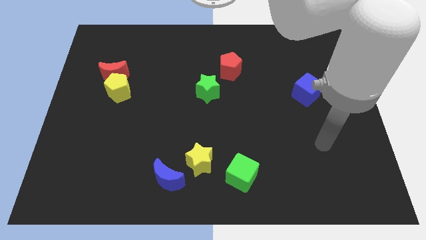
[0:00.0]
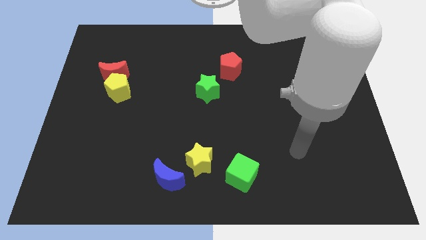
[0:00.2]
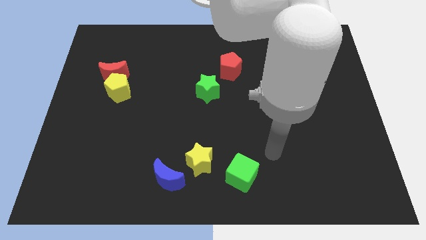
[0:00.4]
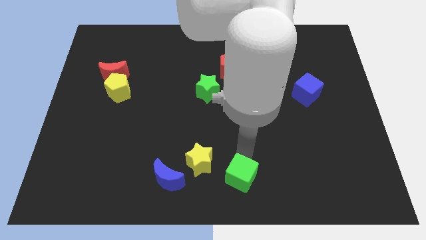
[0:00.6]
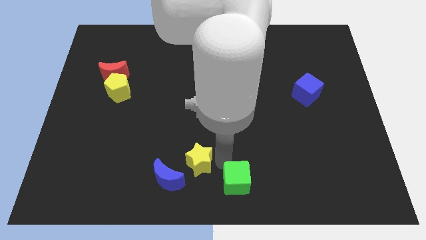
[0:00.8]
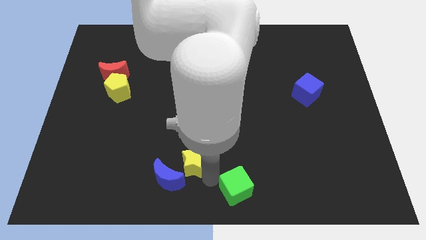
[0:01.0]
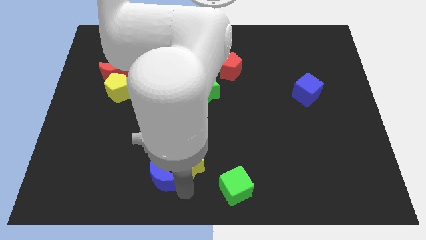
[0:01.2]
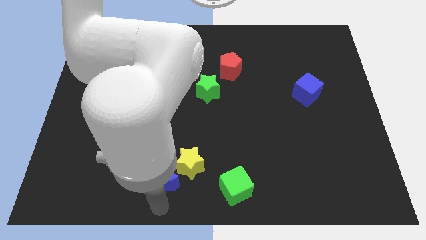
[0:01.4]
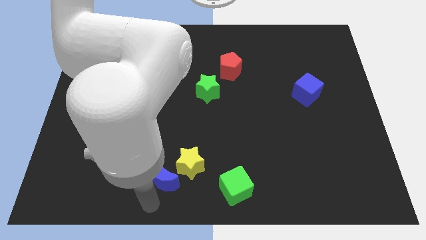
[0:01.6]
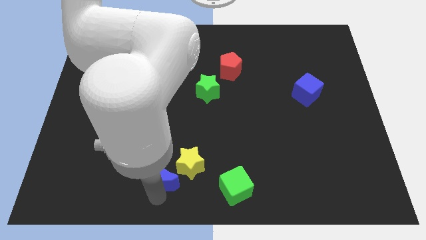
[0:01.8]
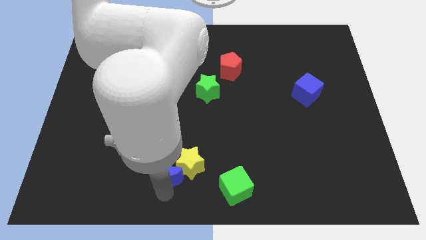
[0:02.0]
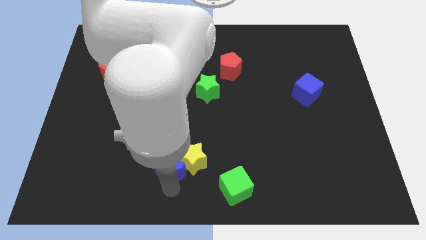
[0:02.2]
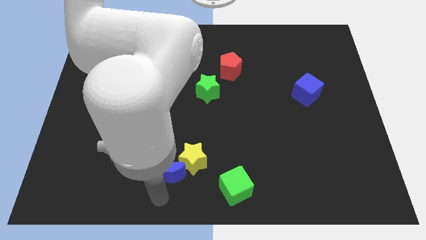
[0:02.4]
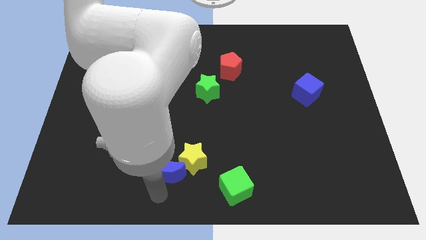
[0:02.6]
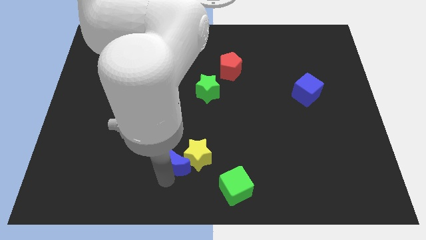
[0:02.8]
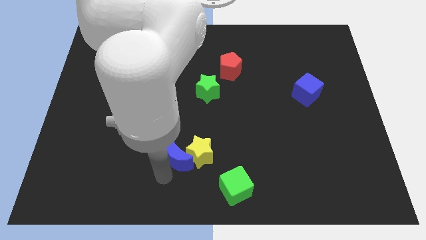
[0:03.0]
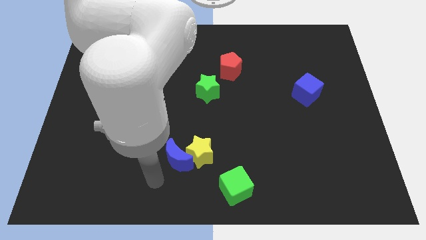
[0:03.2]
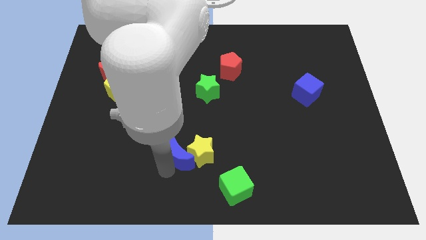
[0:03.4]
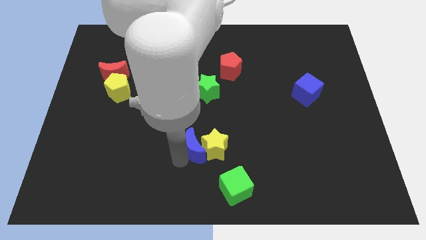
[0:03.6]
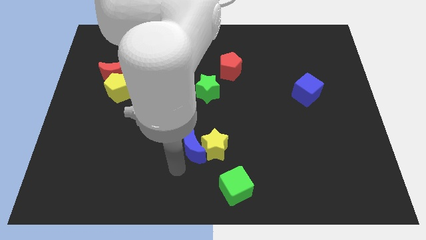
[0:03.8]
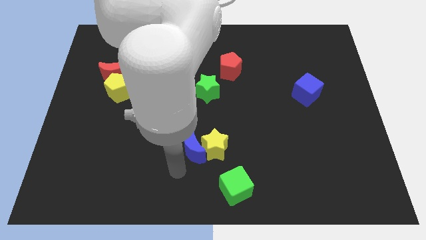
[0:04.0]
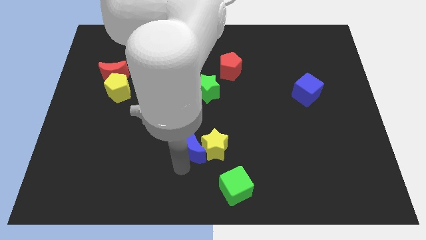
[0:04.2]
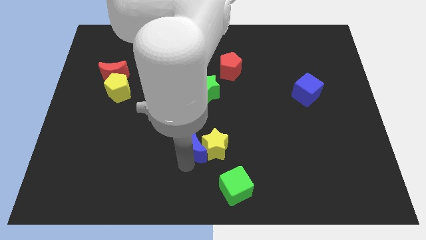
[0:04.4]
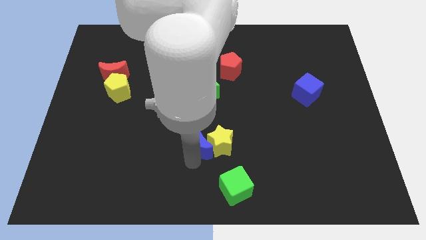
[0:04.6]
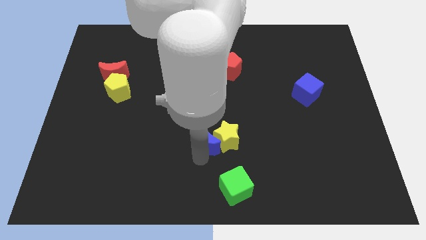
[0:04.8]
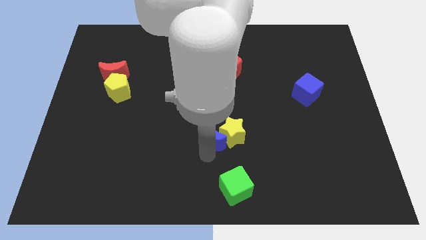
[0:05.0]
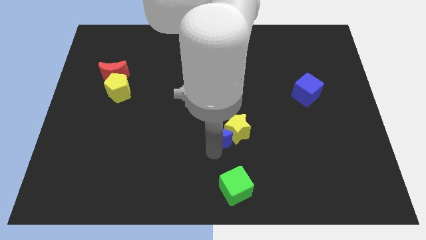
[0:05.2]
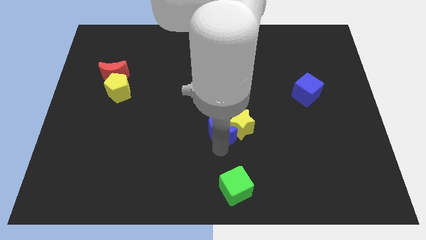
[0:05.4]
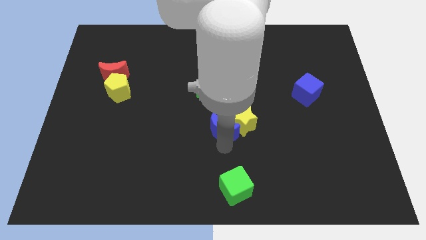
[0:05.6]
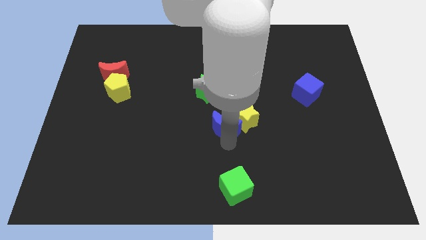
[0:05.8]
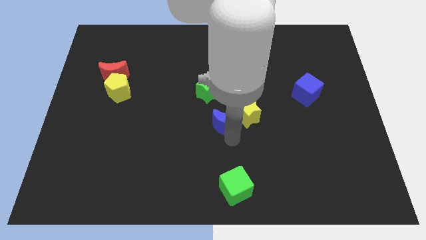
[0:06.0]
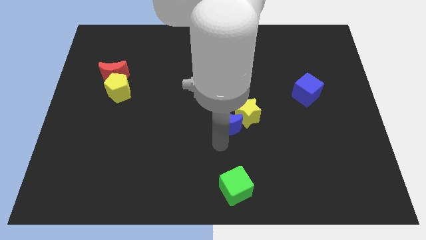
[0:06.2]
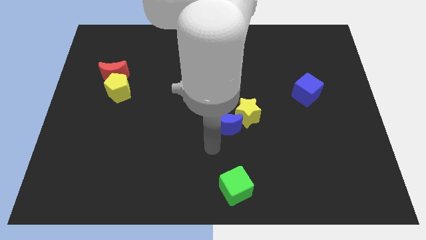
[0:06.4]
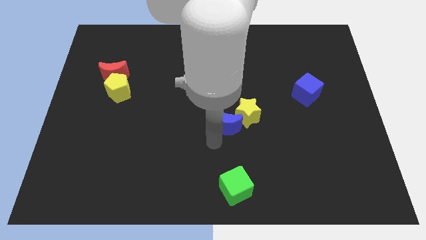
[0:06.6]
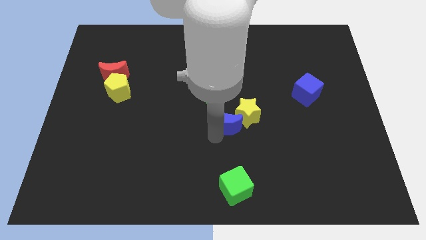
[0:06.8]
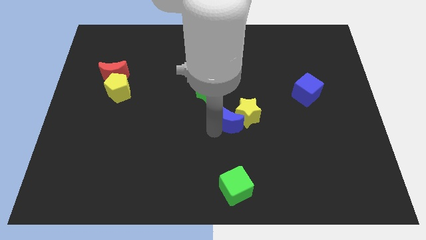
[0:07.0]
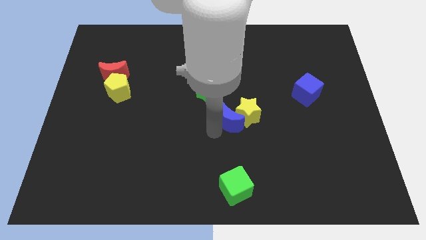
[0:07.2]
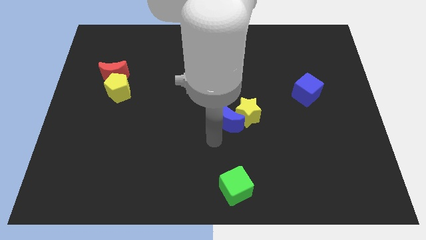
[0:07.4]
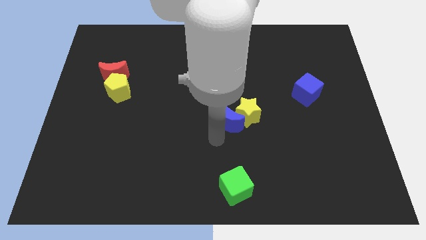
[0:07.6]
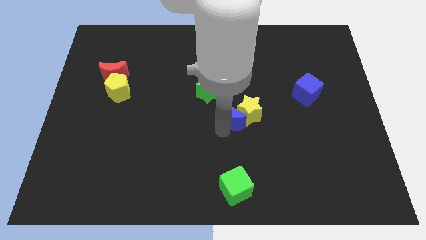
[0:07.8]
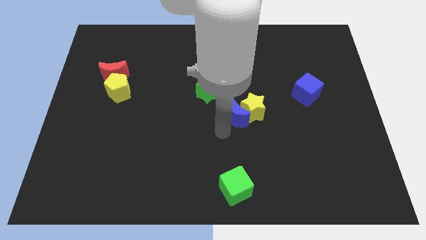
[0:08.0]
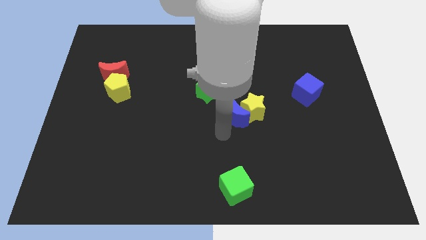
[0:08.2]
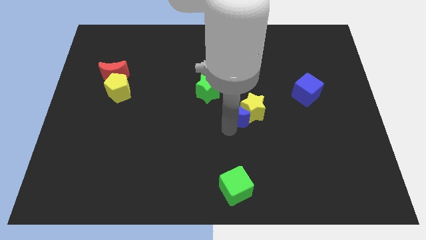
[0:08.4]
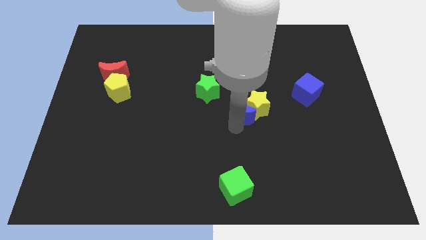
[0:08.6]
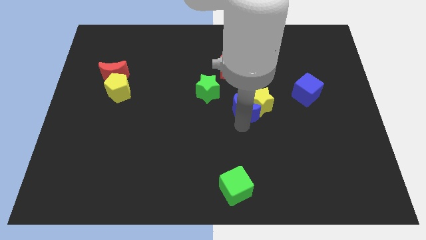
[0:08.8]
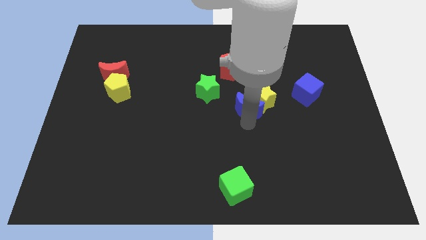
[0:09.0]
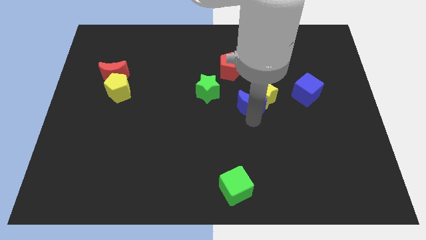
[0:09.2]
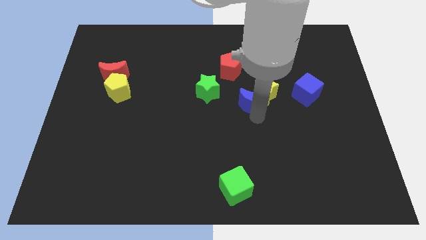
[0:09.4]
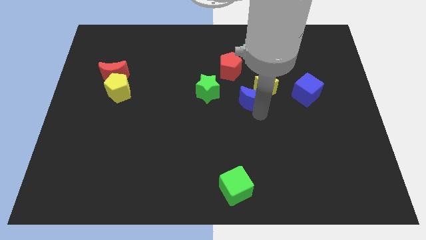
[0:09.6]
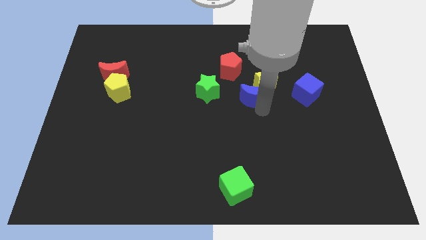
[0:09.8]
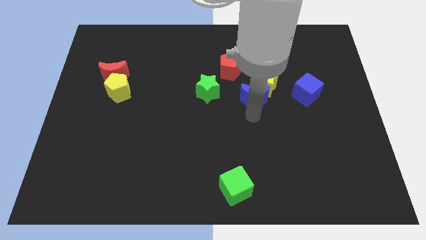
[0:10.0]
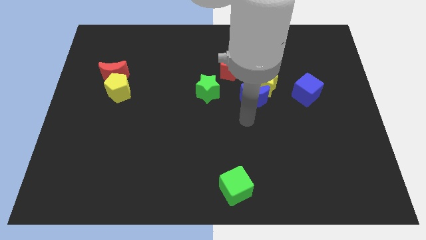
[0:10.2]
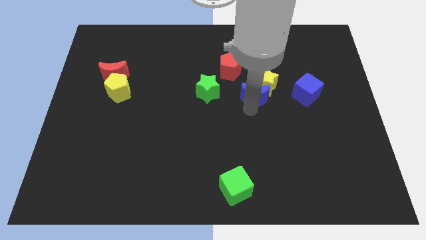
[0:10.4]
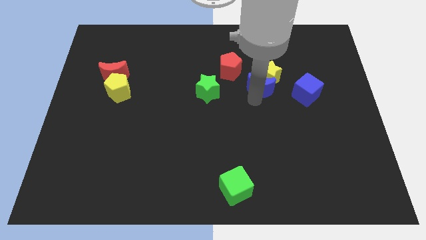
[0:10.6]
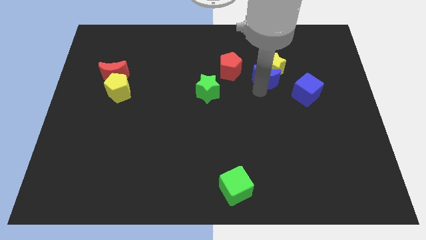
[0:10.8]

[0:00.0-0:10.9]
slide the blue moon to the right of the red pentagon

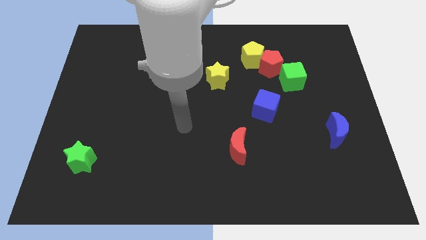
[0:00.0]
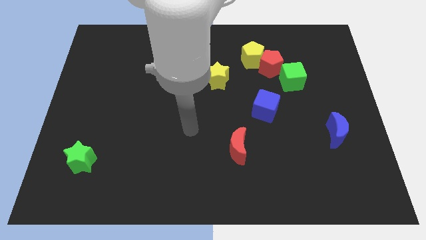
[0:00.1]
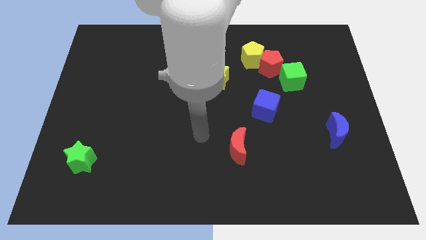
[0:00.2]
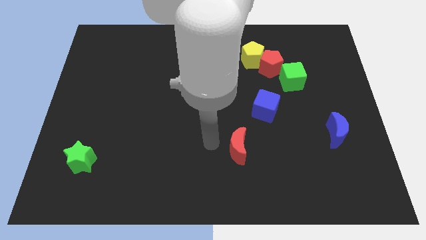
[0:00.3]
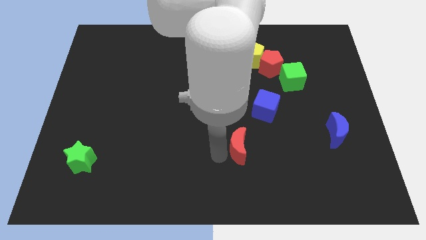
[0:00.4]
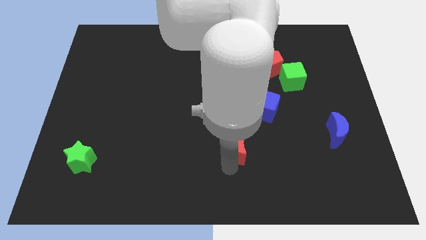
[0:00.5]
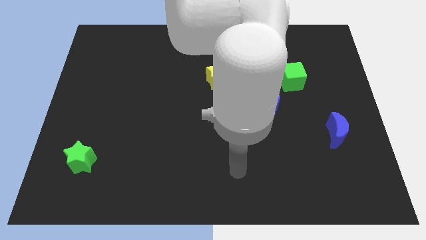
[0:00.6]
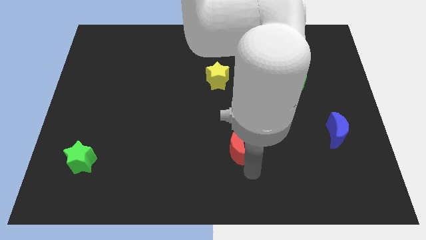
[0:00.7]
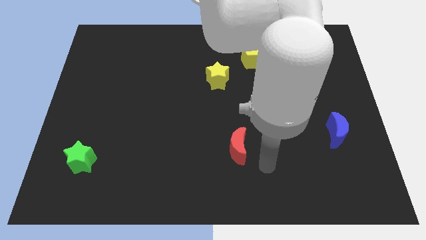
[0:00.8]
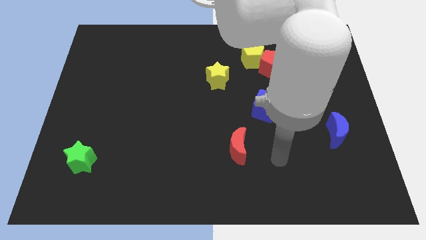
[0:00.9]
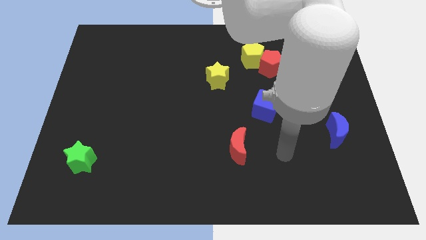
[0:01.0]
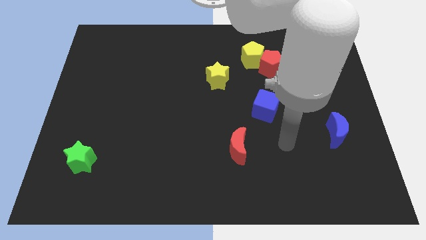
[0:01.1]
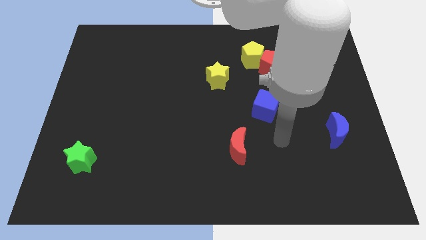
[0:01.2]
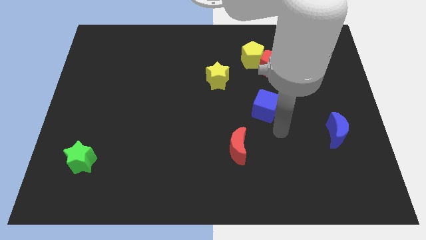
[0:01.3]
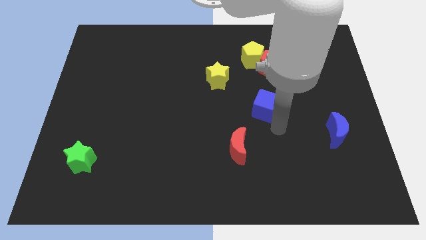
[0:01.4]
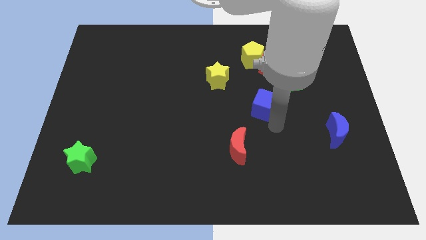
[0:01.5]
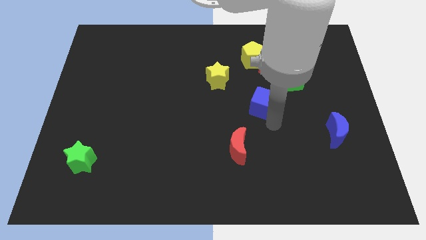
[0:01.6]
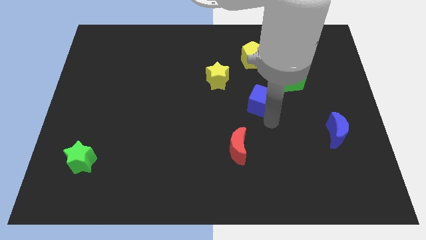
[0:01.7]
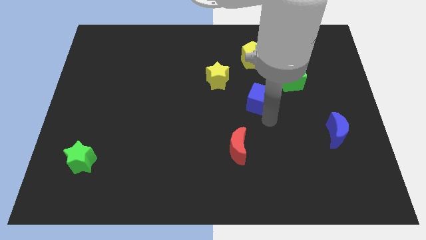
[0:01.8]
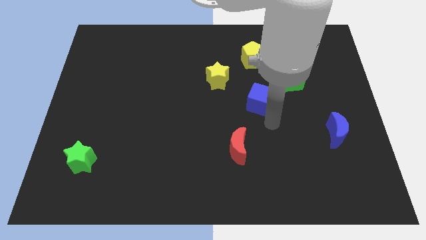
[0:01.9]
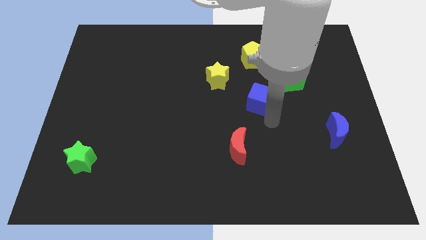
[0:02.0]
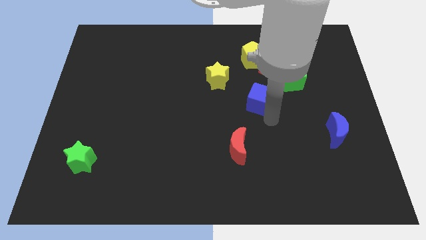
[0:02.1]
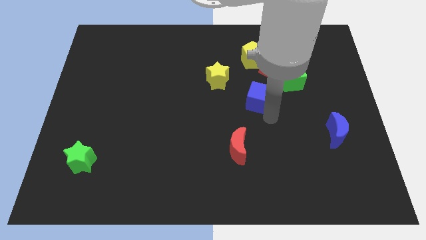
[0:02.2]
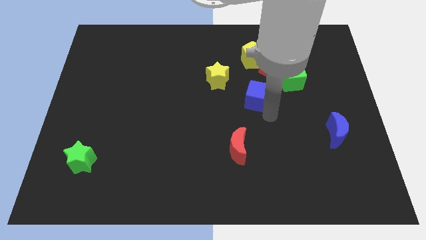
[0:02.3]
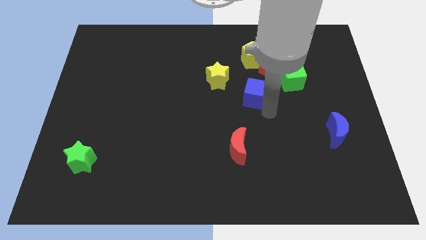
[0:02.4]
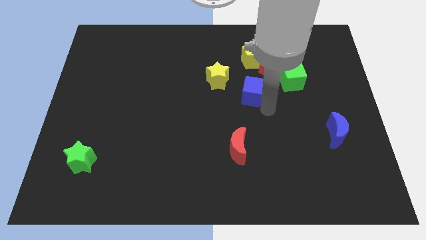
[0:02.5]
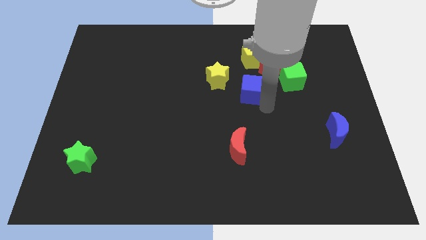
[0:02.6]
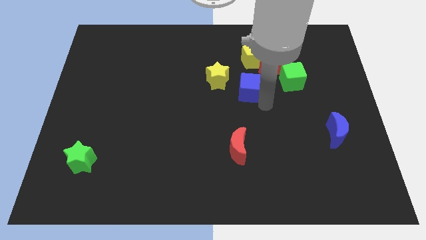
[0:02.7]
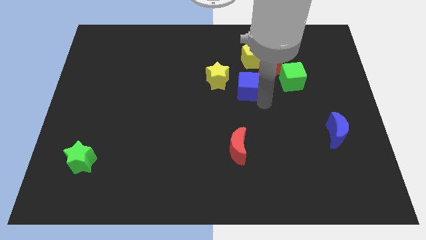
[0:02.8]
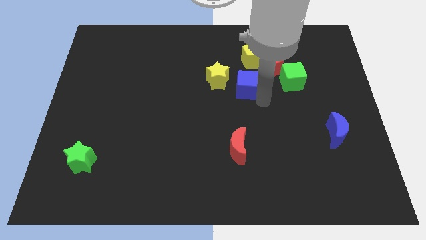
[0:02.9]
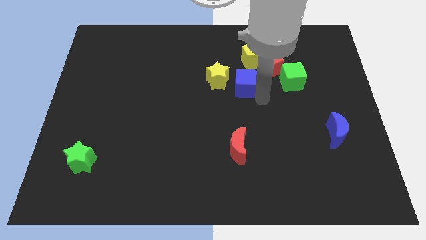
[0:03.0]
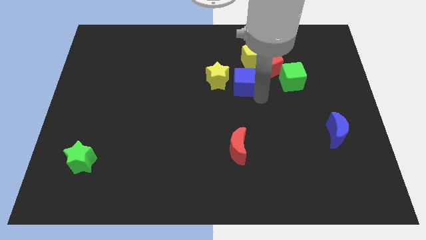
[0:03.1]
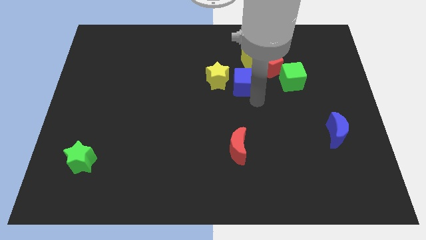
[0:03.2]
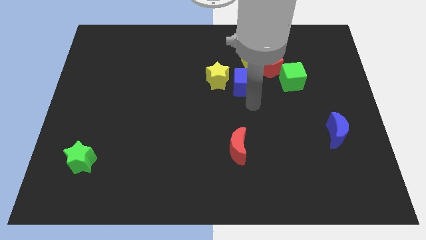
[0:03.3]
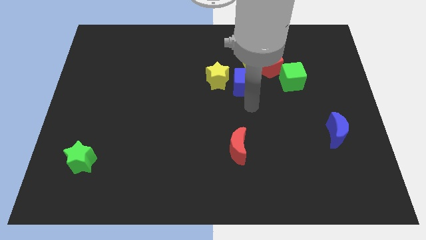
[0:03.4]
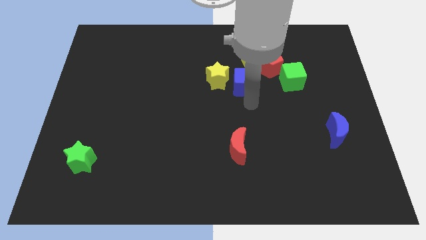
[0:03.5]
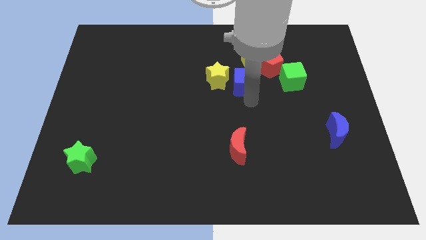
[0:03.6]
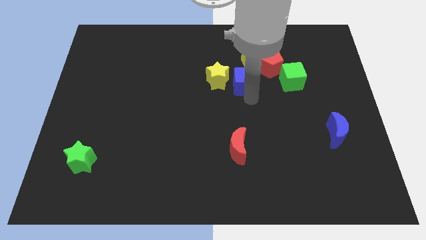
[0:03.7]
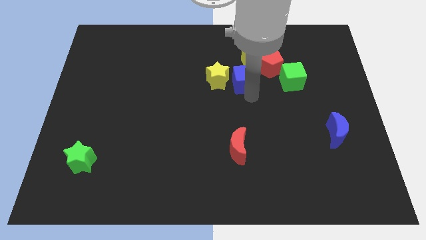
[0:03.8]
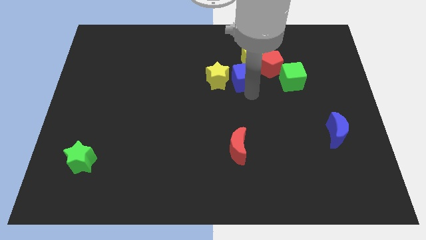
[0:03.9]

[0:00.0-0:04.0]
push the blue cube diagonally up and to the right of the yellow star
